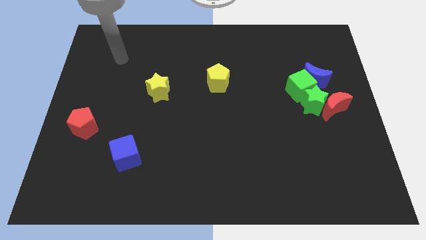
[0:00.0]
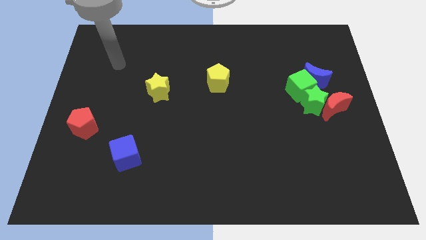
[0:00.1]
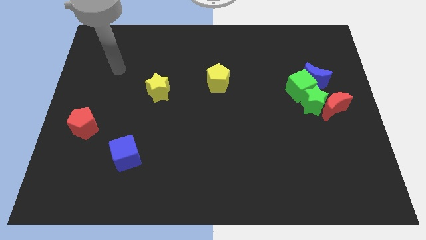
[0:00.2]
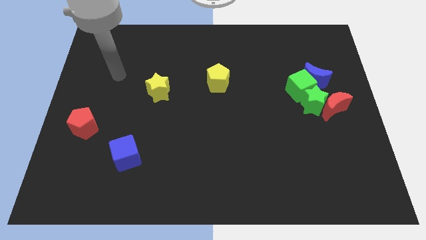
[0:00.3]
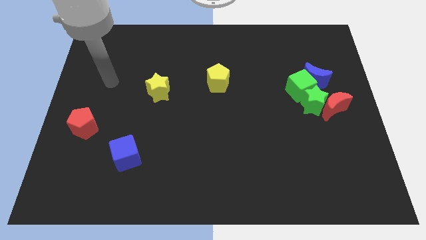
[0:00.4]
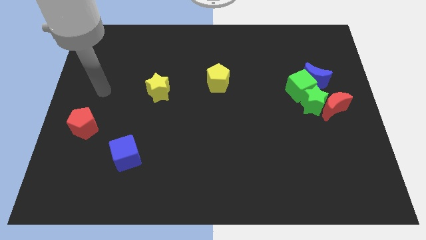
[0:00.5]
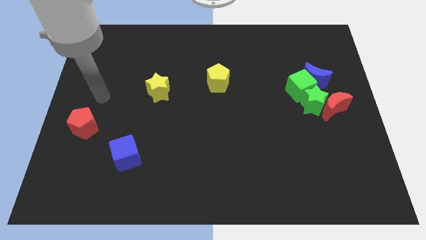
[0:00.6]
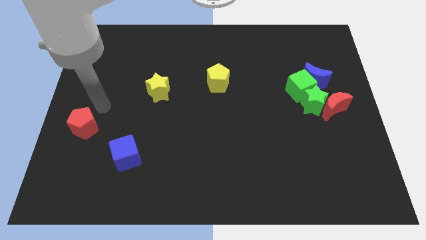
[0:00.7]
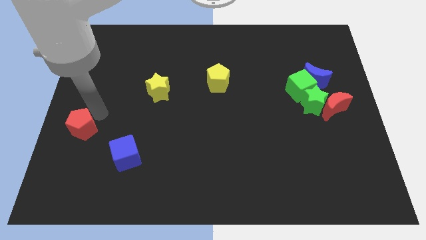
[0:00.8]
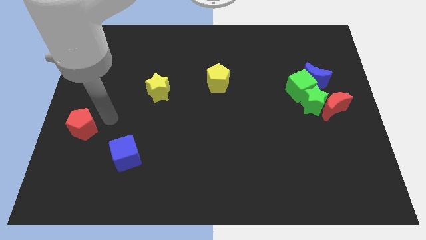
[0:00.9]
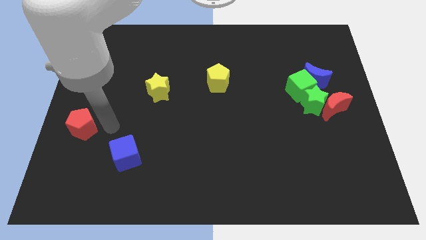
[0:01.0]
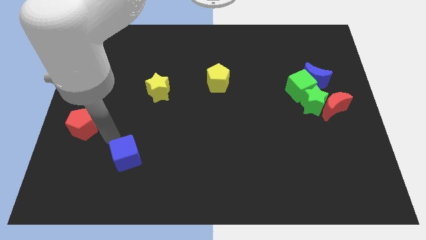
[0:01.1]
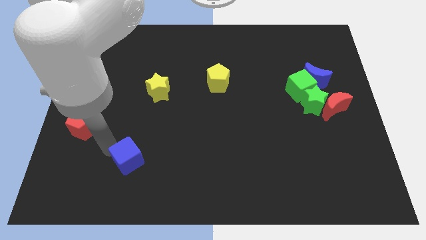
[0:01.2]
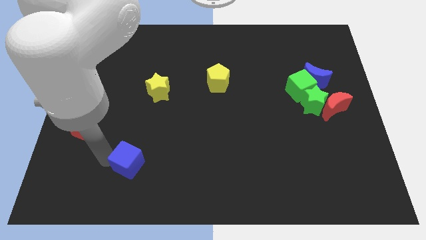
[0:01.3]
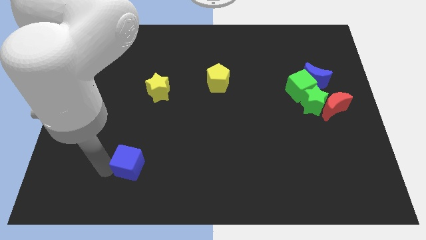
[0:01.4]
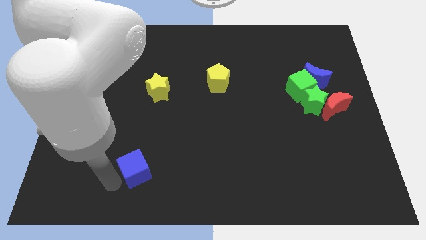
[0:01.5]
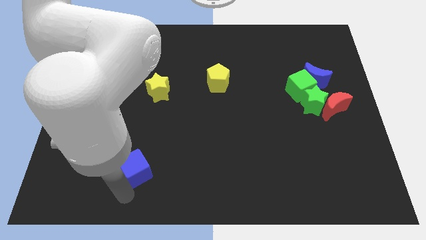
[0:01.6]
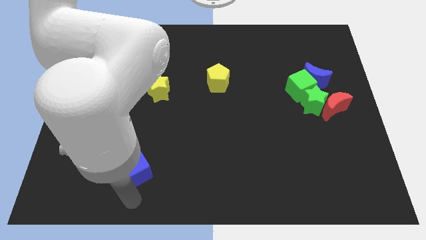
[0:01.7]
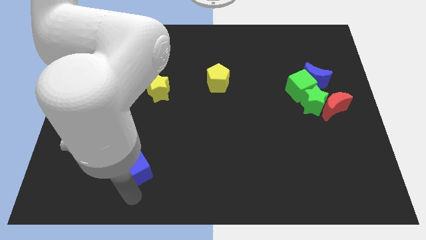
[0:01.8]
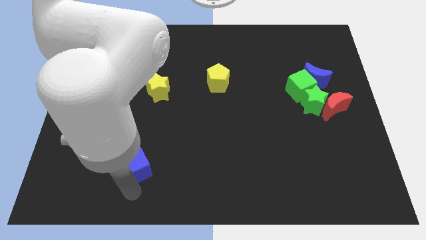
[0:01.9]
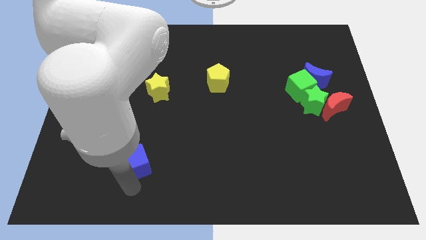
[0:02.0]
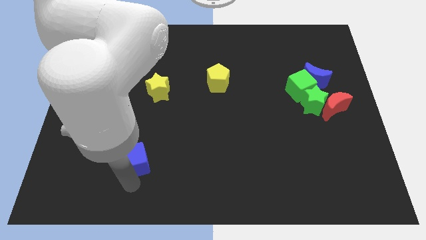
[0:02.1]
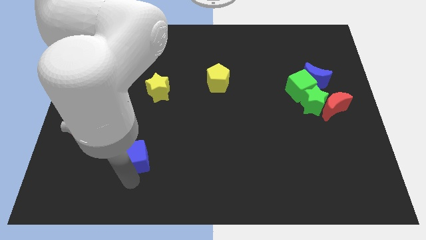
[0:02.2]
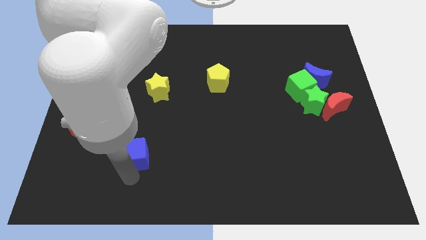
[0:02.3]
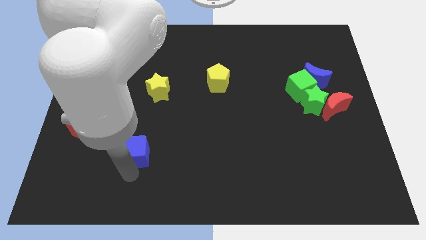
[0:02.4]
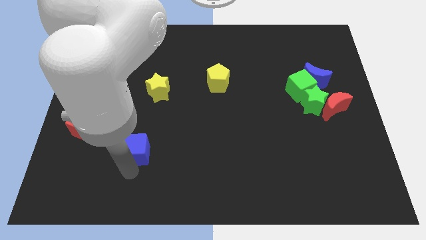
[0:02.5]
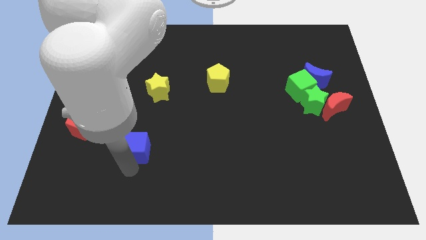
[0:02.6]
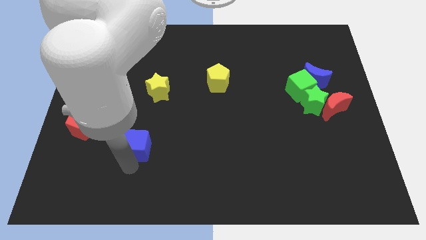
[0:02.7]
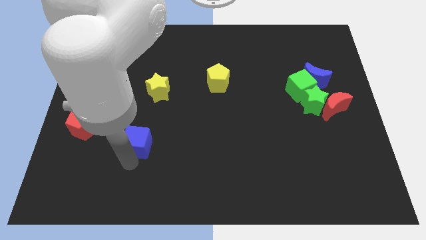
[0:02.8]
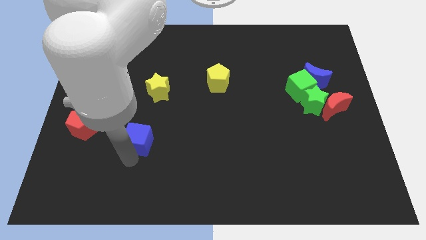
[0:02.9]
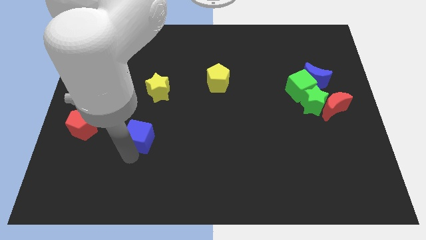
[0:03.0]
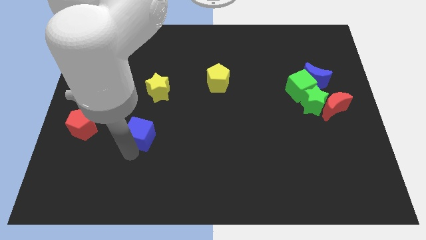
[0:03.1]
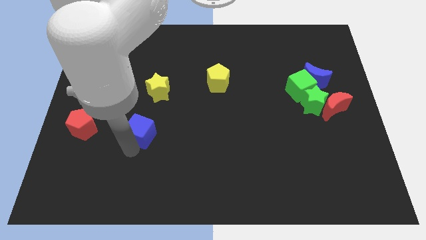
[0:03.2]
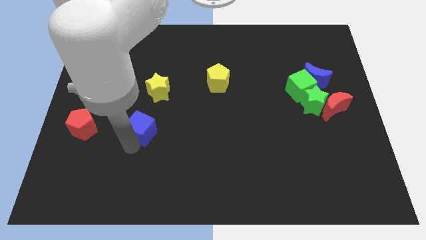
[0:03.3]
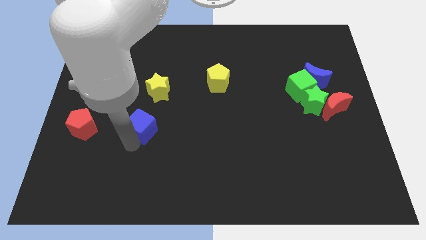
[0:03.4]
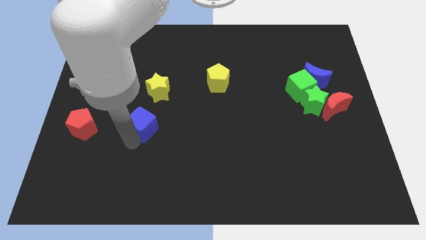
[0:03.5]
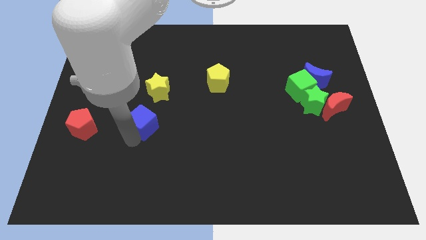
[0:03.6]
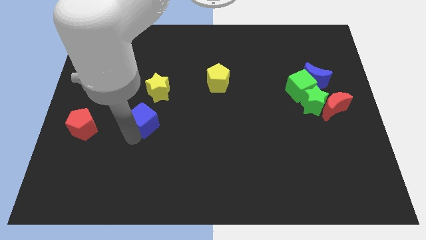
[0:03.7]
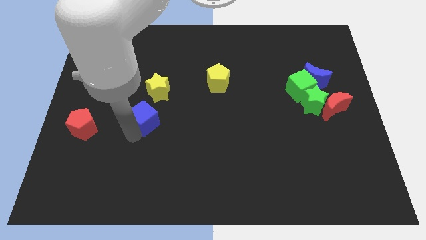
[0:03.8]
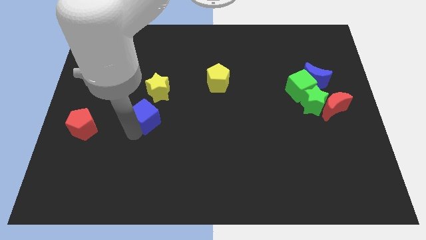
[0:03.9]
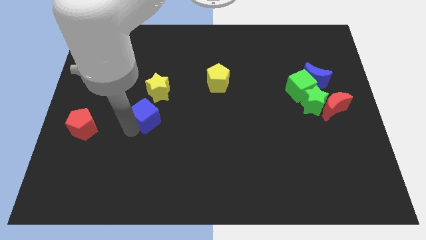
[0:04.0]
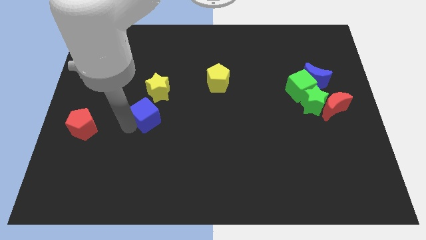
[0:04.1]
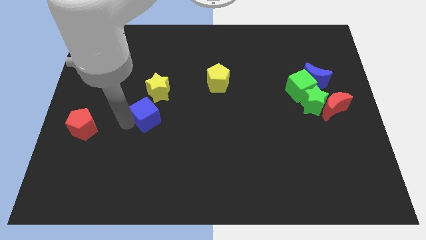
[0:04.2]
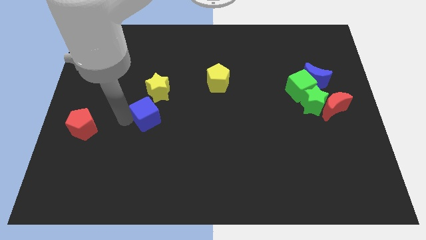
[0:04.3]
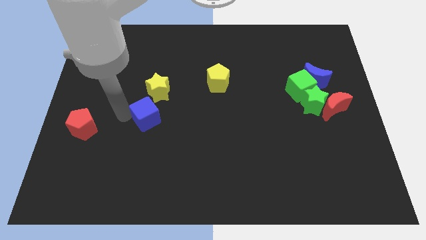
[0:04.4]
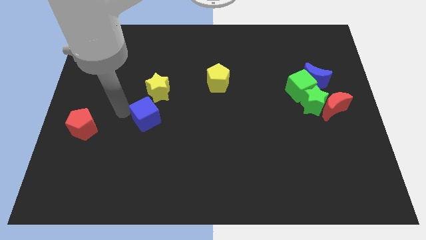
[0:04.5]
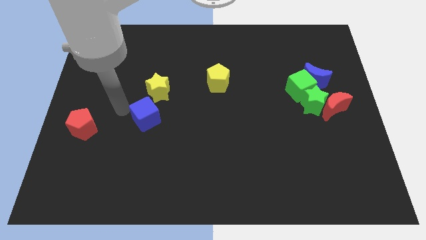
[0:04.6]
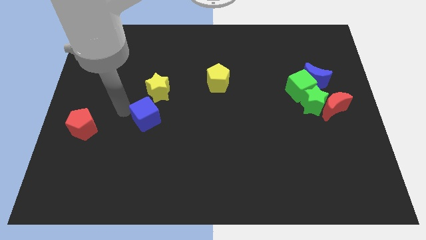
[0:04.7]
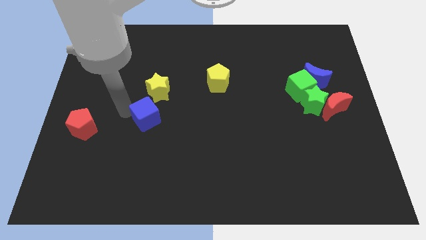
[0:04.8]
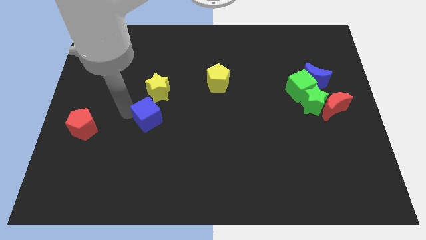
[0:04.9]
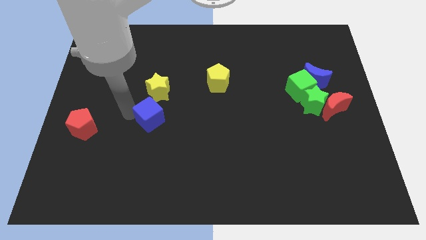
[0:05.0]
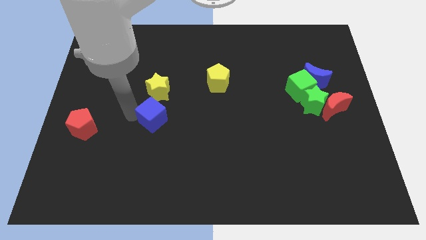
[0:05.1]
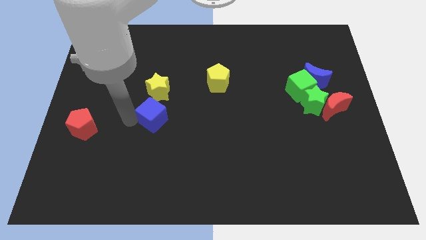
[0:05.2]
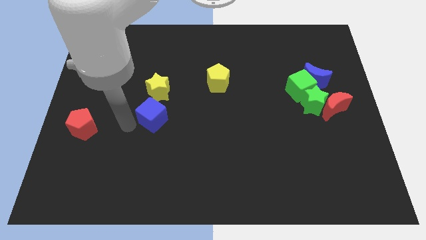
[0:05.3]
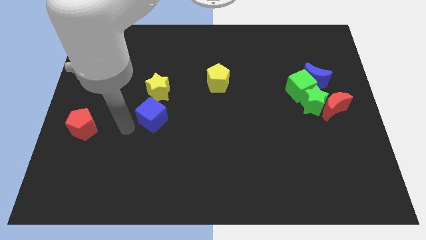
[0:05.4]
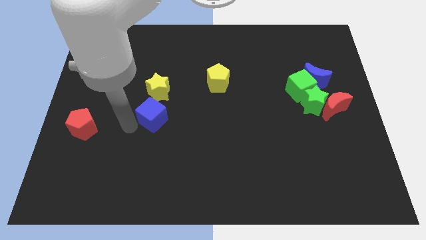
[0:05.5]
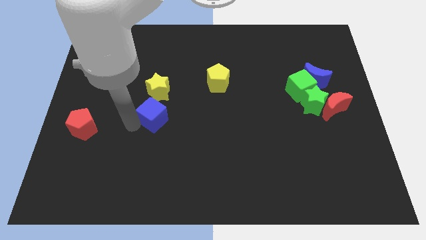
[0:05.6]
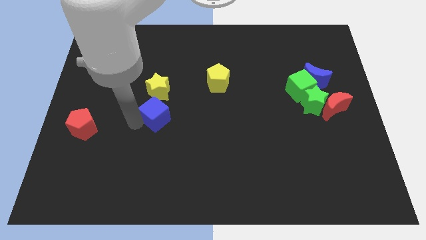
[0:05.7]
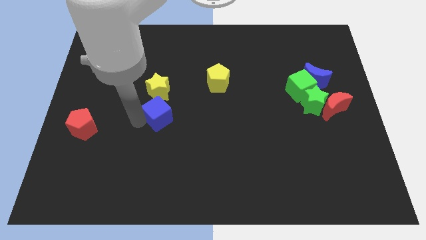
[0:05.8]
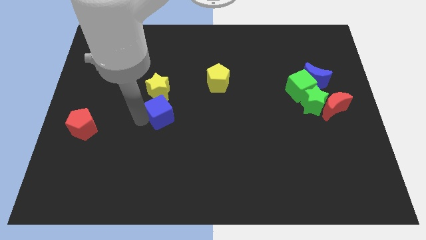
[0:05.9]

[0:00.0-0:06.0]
slide the blue cube diagonally down and to the right of the yellow star

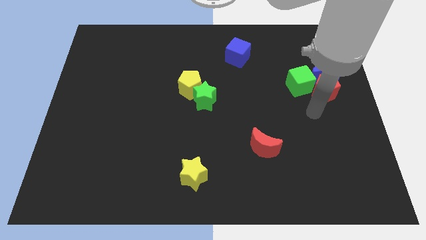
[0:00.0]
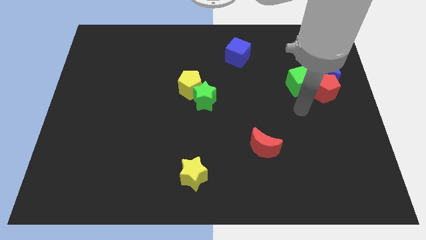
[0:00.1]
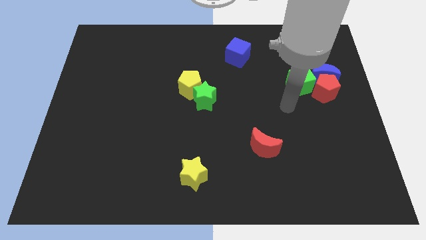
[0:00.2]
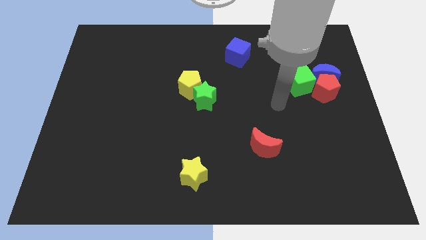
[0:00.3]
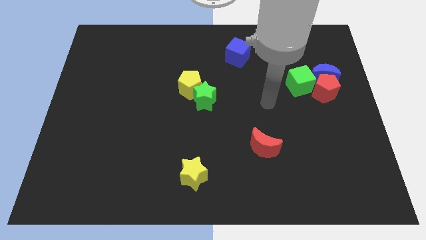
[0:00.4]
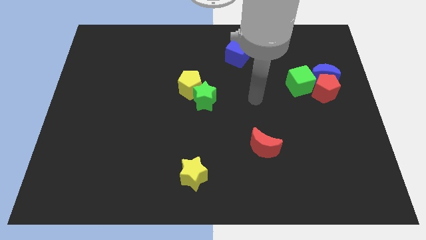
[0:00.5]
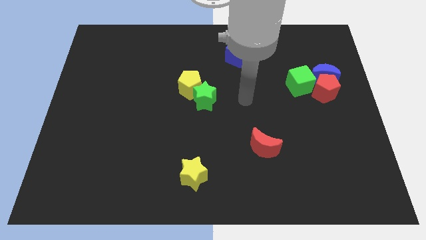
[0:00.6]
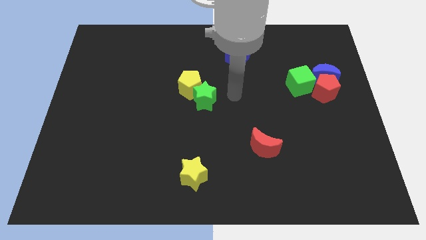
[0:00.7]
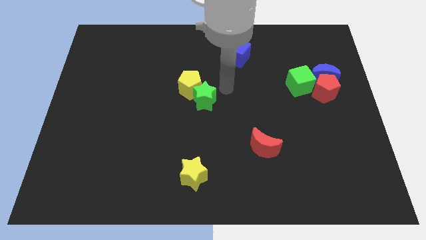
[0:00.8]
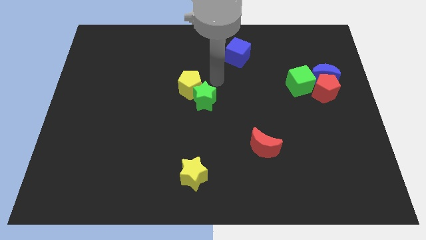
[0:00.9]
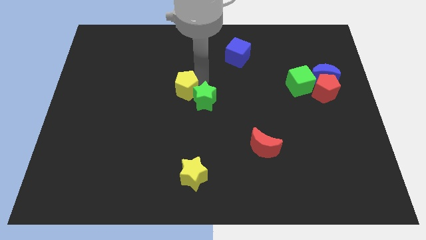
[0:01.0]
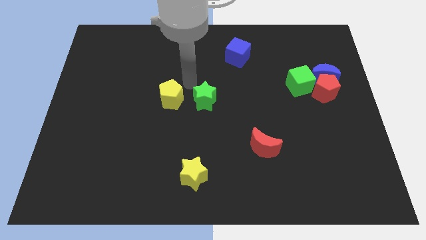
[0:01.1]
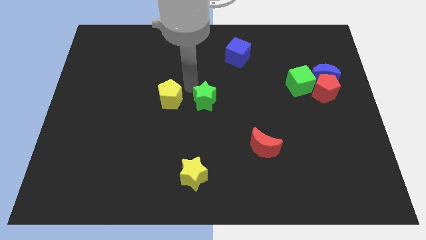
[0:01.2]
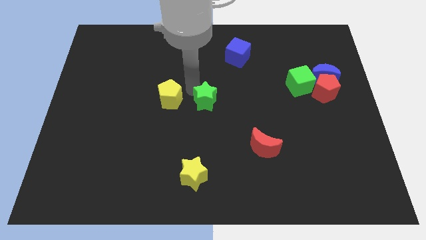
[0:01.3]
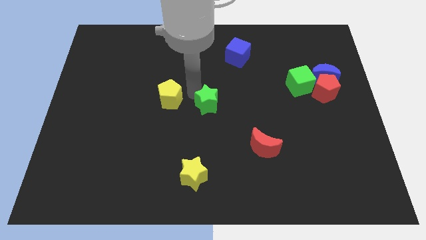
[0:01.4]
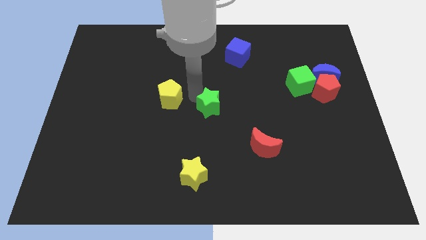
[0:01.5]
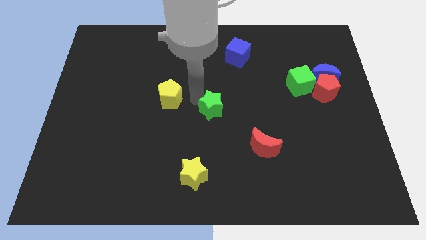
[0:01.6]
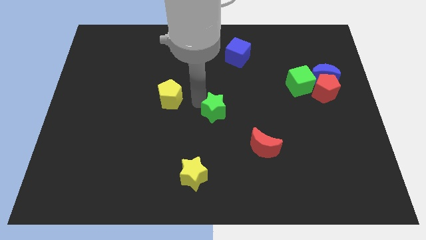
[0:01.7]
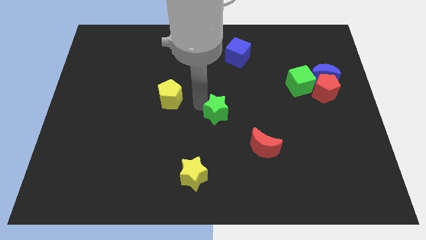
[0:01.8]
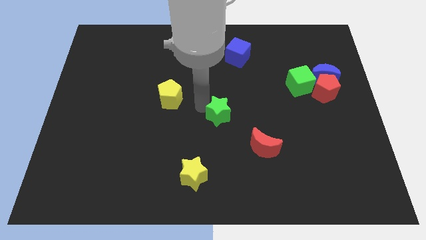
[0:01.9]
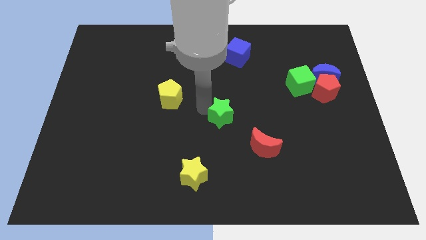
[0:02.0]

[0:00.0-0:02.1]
push the green star diagonally up and to the left of the red moon
